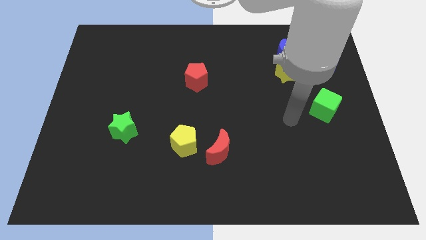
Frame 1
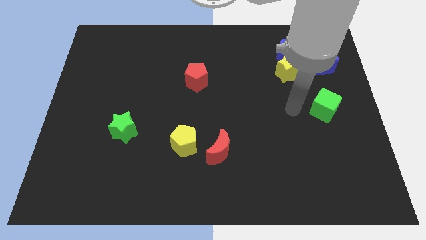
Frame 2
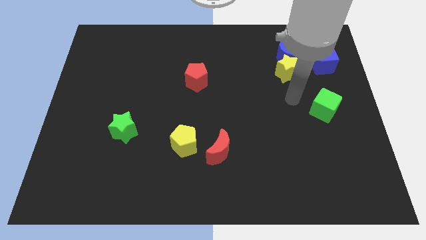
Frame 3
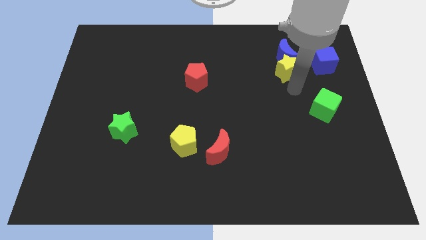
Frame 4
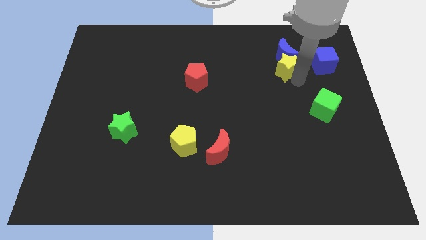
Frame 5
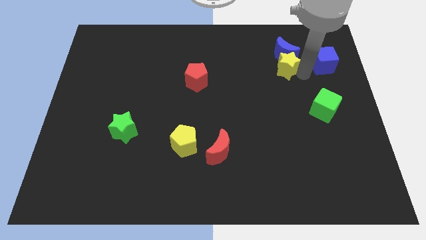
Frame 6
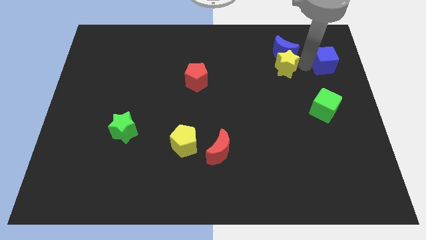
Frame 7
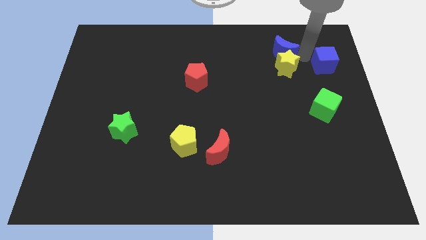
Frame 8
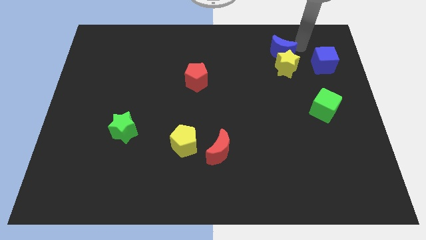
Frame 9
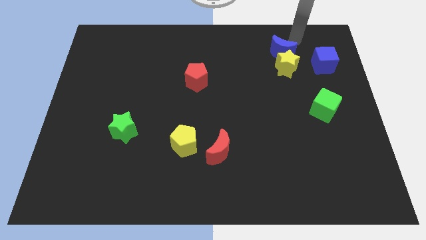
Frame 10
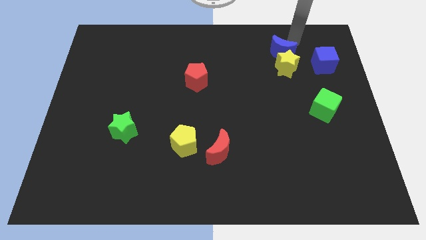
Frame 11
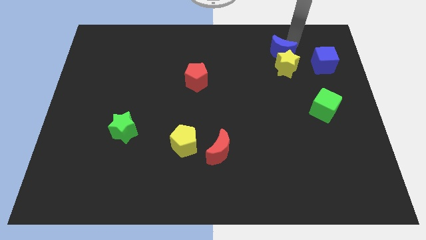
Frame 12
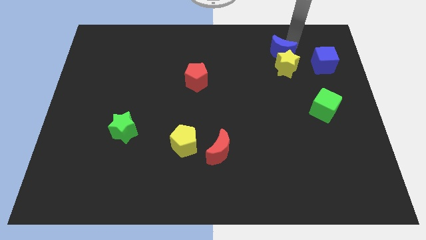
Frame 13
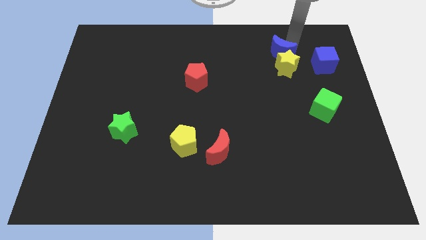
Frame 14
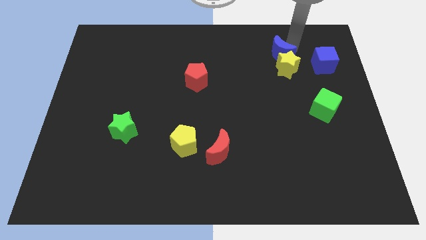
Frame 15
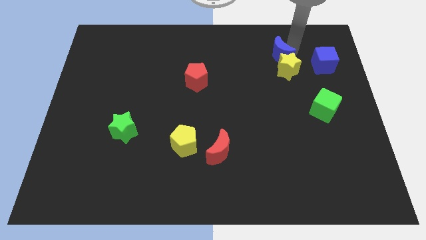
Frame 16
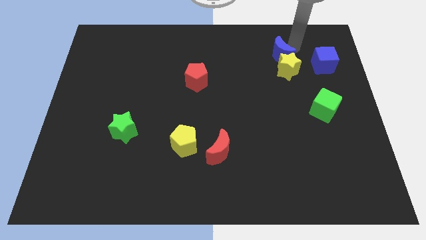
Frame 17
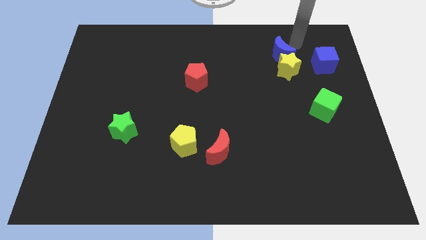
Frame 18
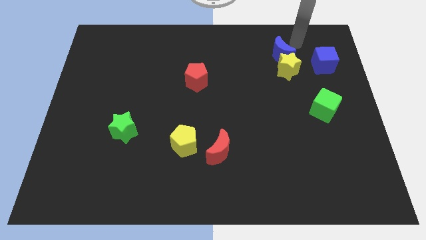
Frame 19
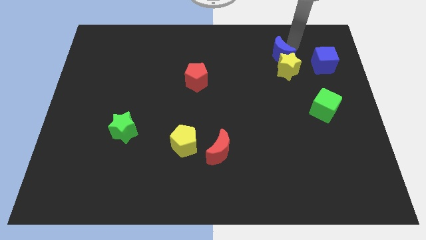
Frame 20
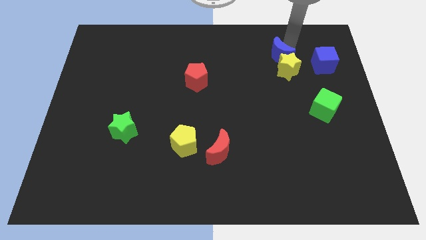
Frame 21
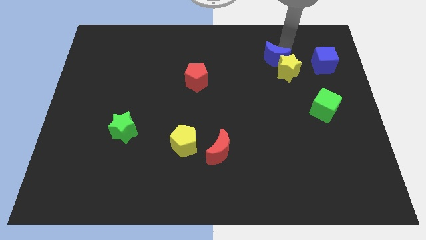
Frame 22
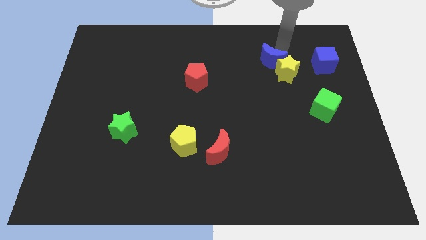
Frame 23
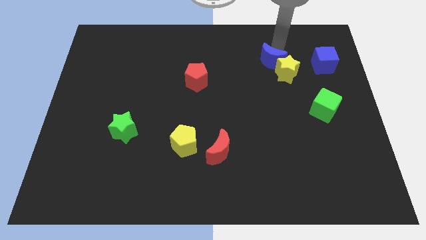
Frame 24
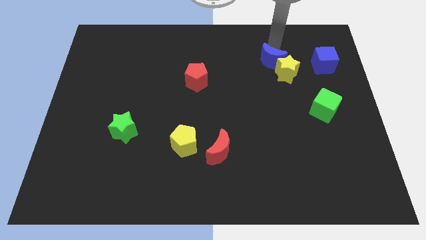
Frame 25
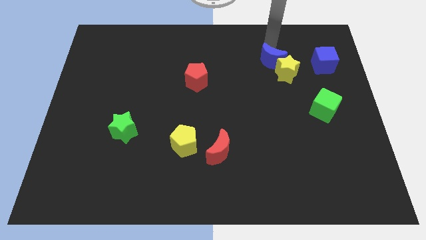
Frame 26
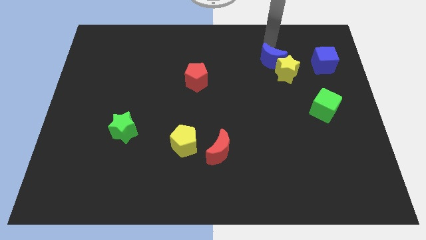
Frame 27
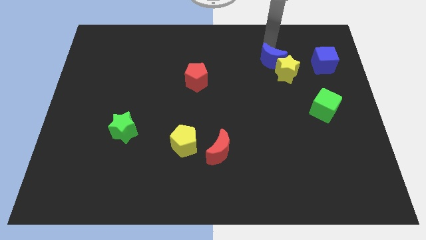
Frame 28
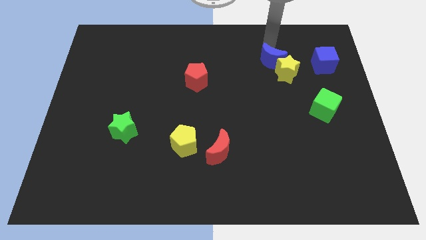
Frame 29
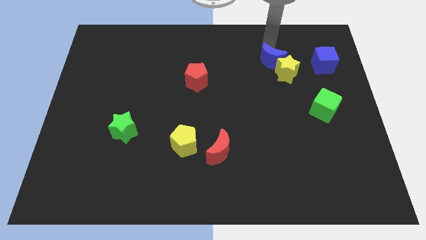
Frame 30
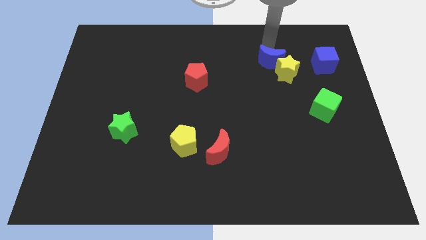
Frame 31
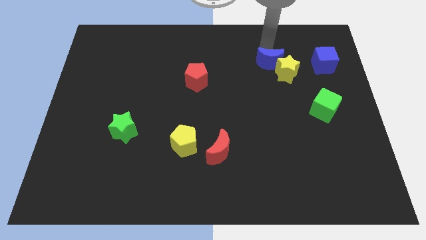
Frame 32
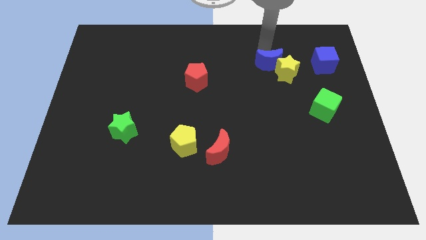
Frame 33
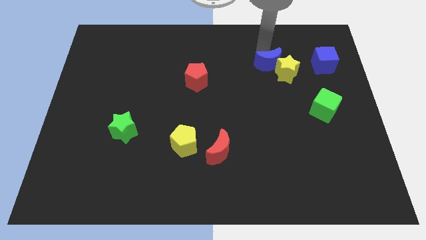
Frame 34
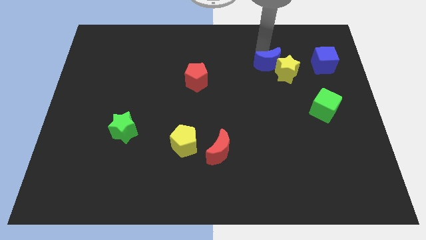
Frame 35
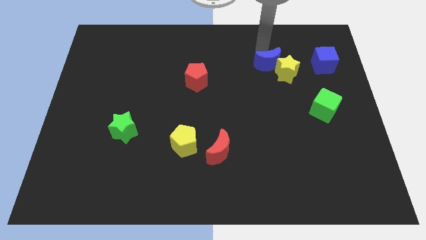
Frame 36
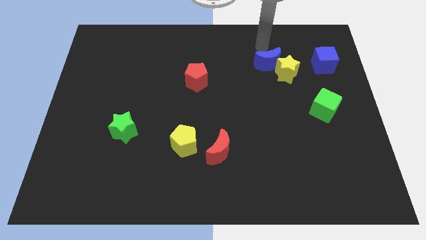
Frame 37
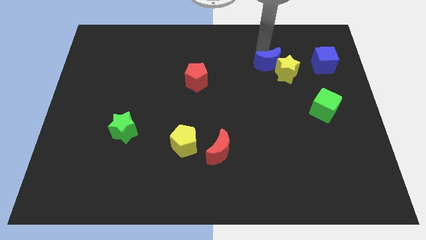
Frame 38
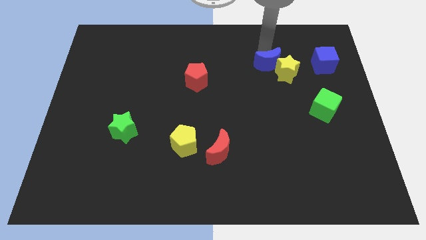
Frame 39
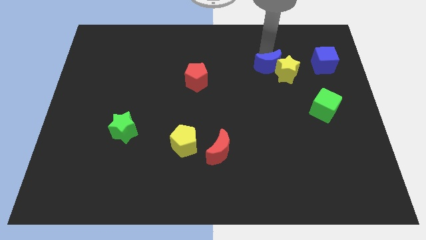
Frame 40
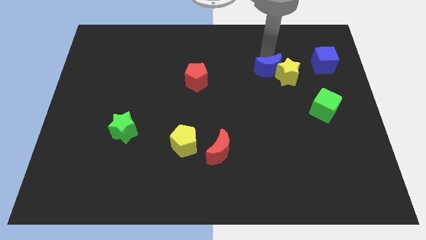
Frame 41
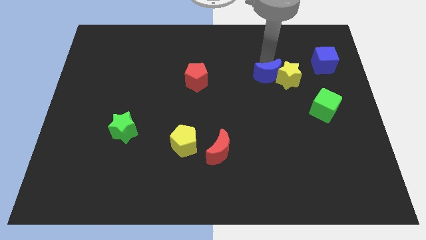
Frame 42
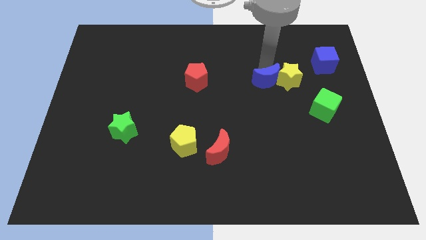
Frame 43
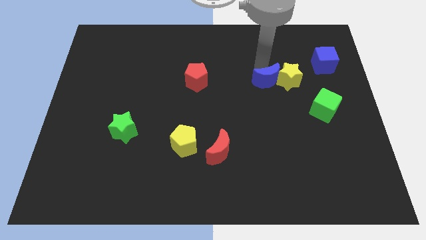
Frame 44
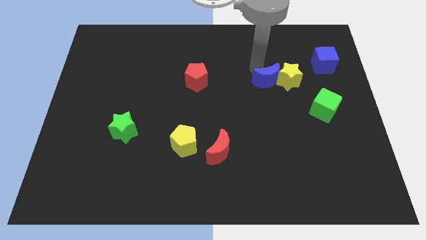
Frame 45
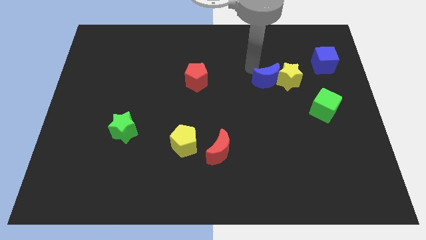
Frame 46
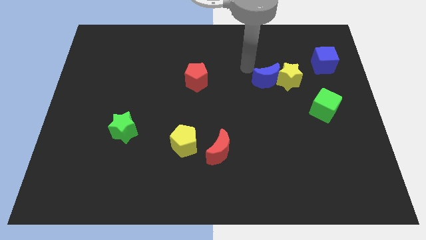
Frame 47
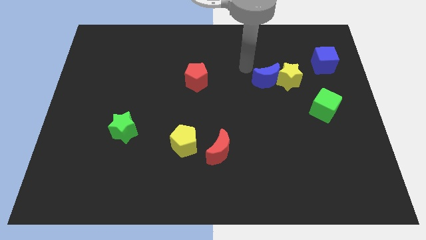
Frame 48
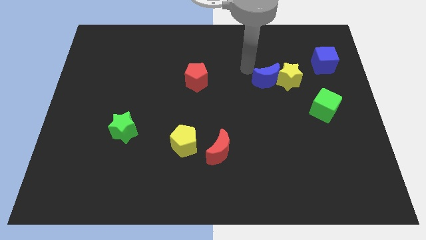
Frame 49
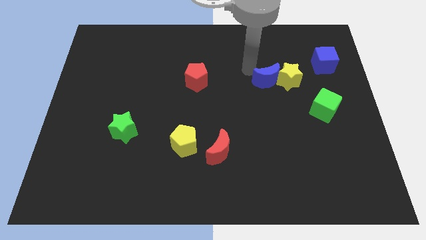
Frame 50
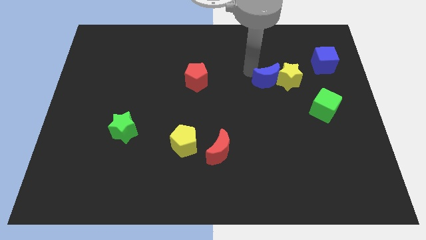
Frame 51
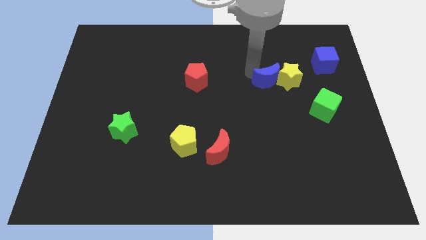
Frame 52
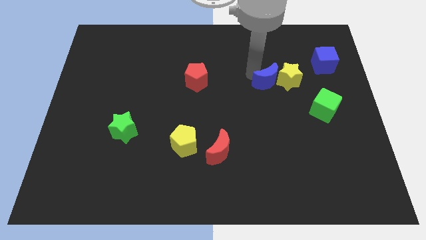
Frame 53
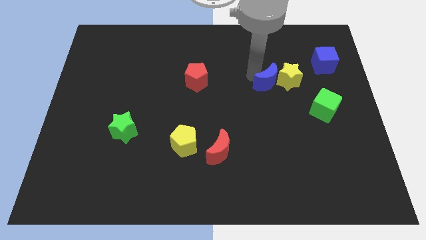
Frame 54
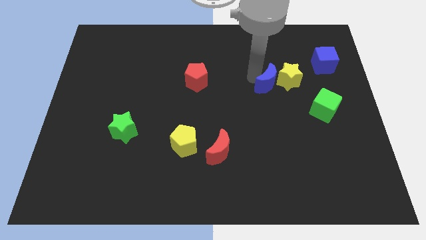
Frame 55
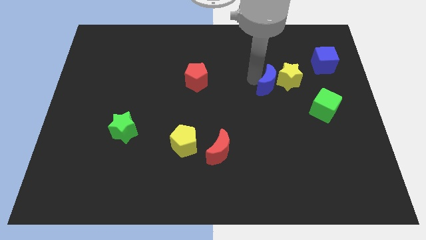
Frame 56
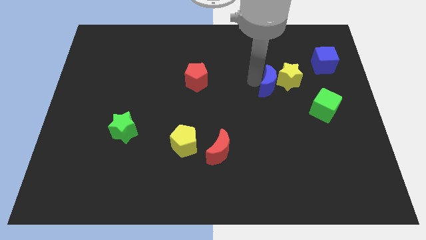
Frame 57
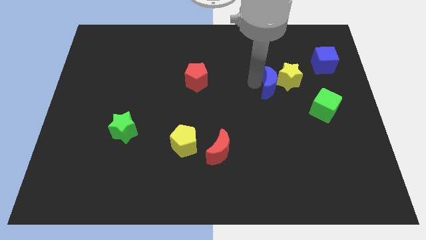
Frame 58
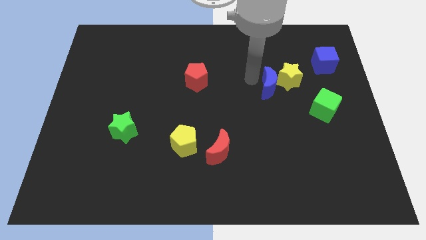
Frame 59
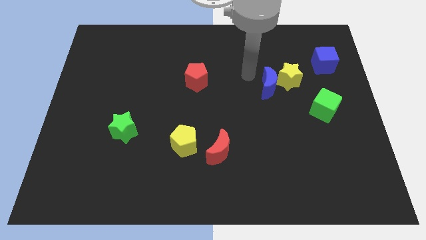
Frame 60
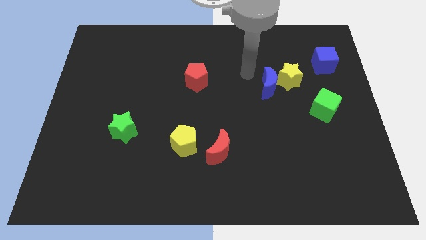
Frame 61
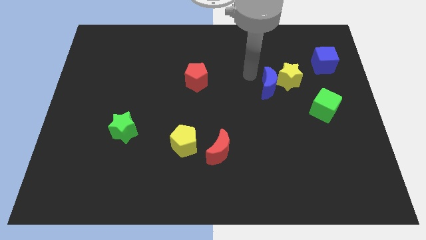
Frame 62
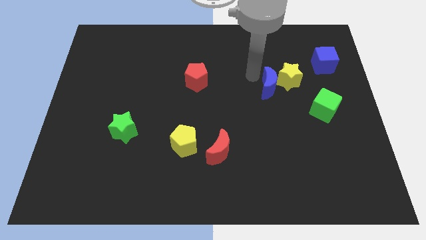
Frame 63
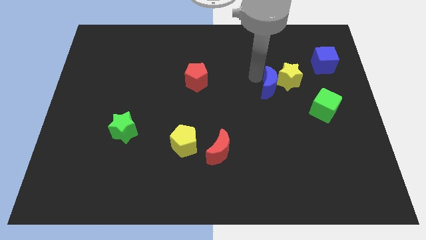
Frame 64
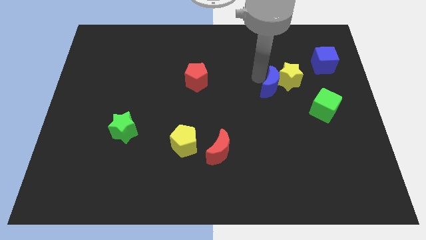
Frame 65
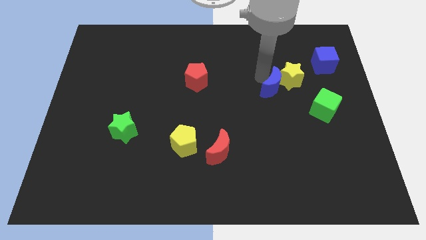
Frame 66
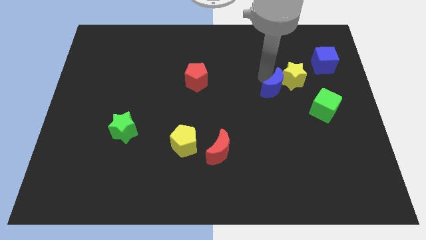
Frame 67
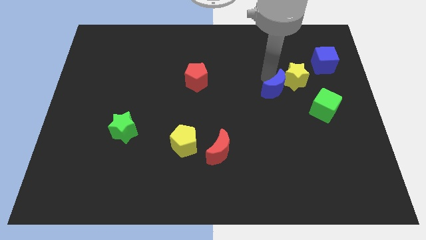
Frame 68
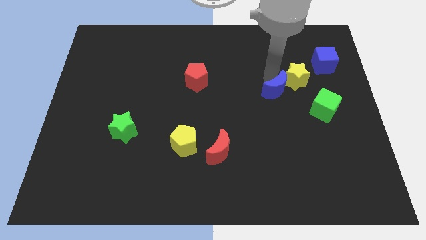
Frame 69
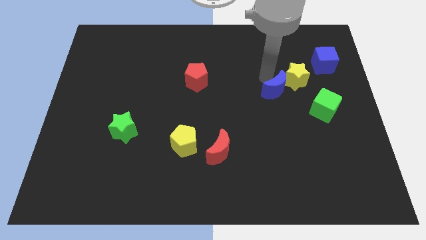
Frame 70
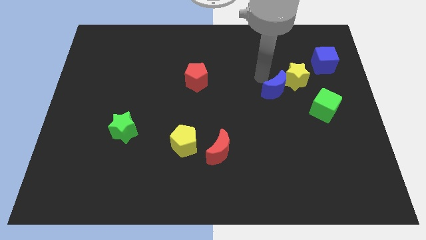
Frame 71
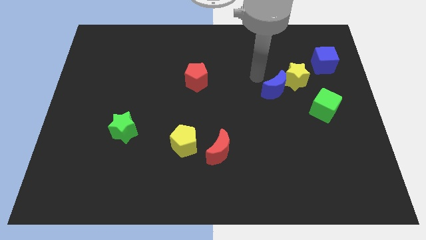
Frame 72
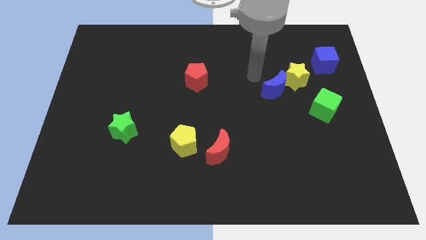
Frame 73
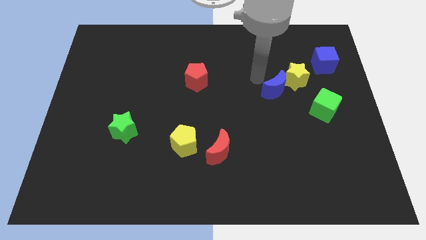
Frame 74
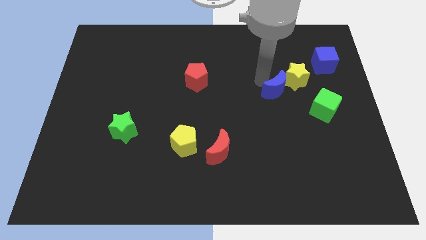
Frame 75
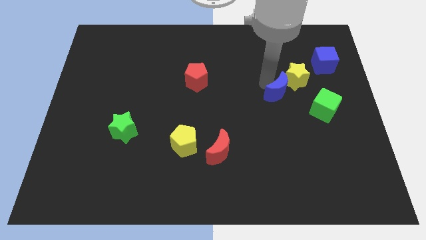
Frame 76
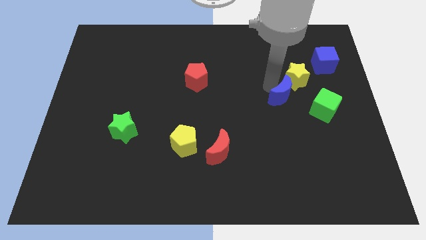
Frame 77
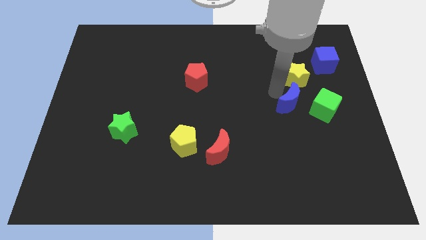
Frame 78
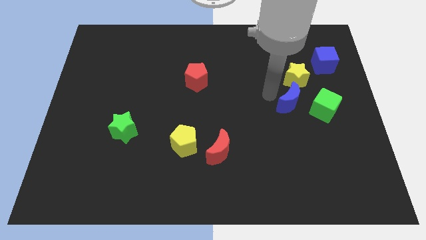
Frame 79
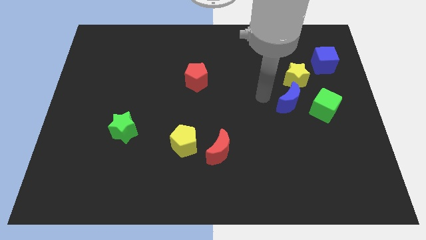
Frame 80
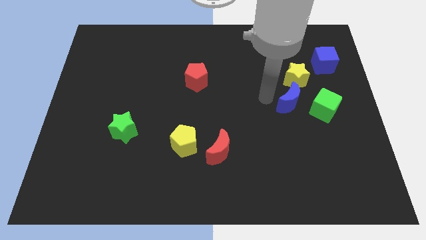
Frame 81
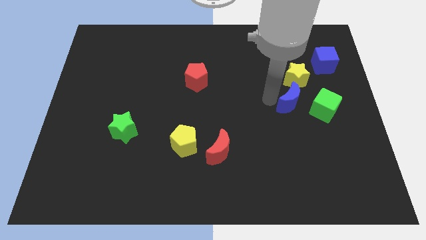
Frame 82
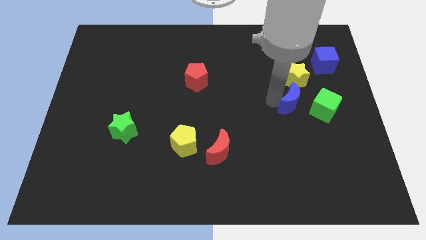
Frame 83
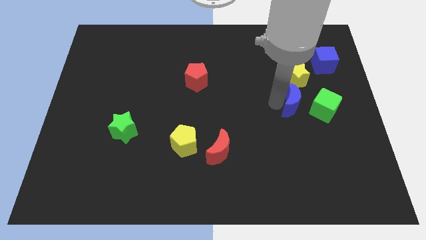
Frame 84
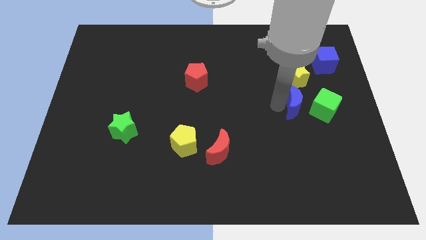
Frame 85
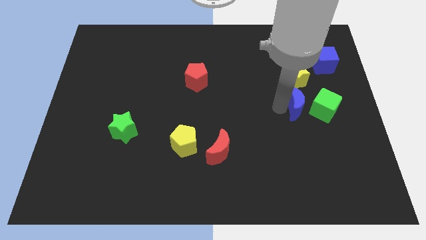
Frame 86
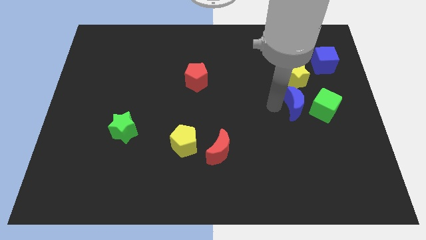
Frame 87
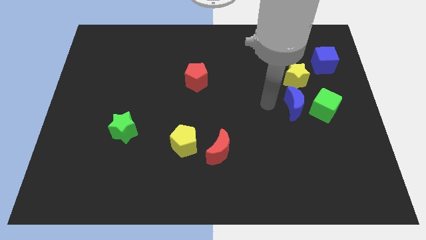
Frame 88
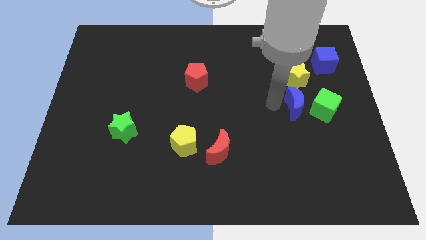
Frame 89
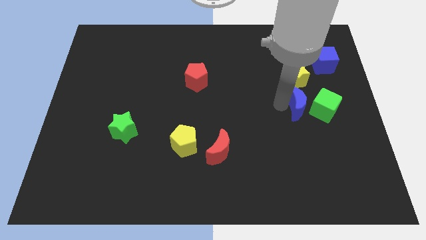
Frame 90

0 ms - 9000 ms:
move the blue moon to the green cube
